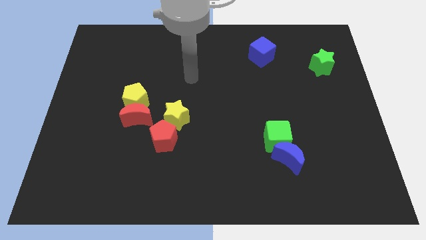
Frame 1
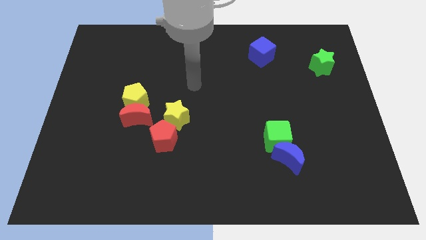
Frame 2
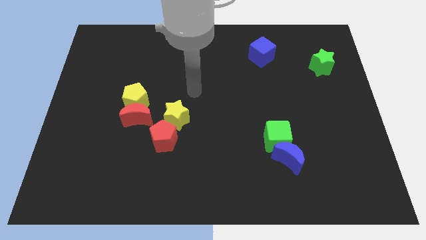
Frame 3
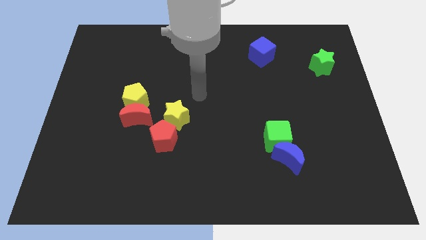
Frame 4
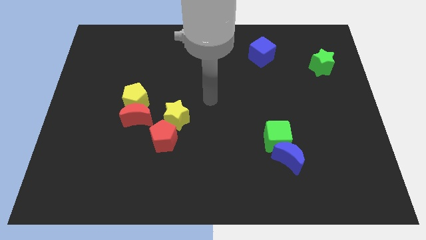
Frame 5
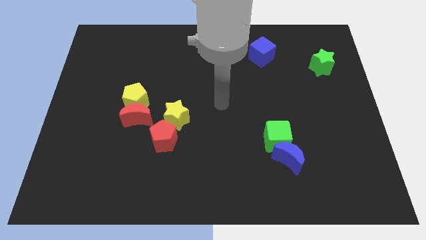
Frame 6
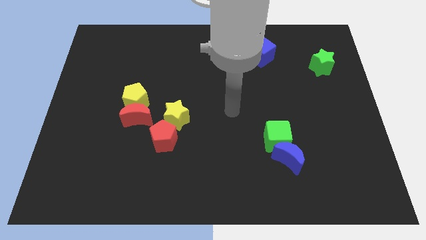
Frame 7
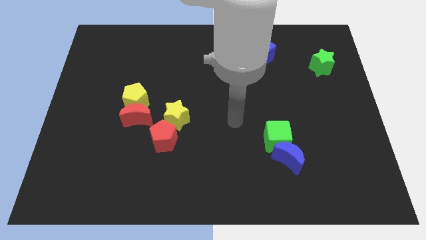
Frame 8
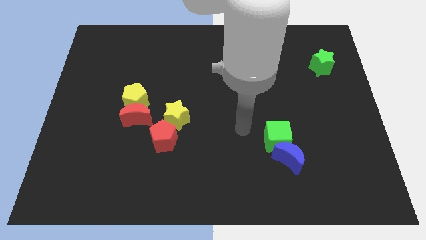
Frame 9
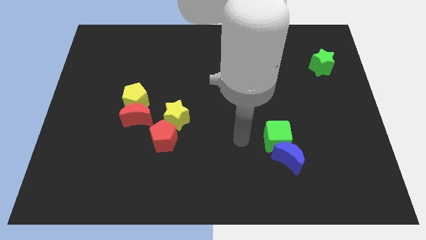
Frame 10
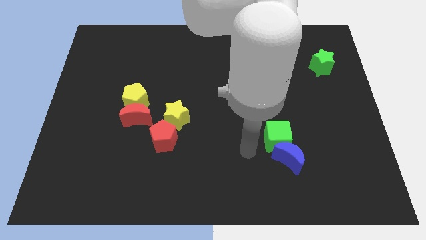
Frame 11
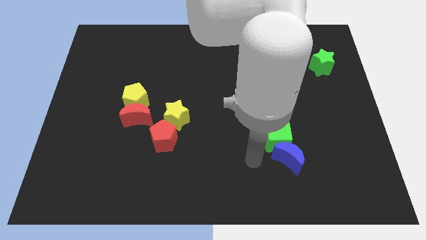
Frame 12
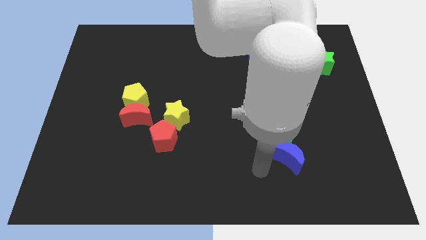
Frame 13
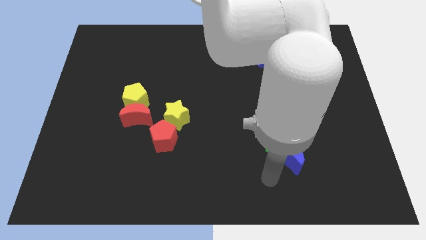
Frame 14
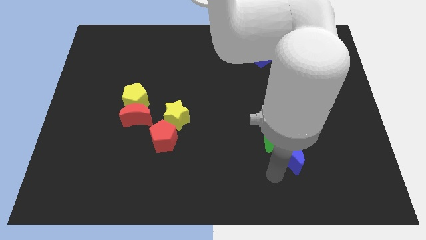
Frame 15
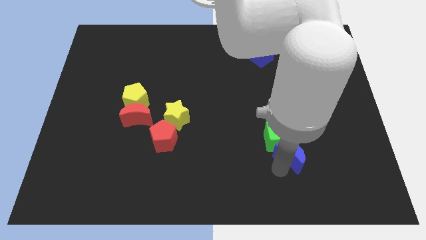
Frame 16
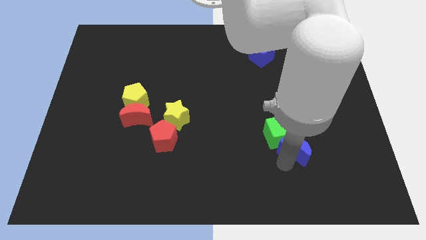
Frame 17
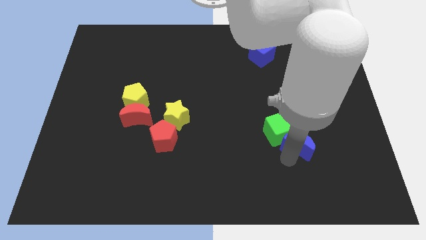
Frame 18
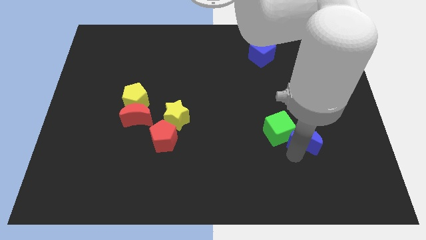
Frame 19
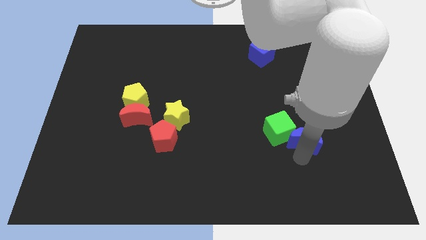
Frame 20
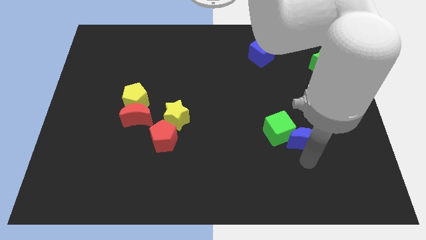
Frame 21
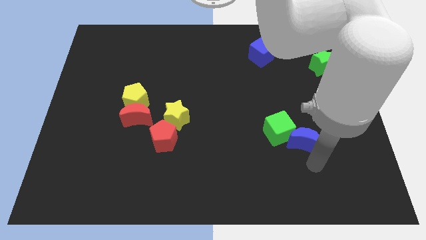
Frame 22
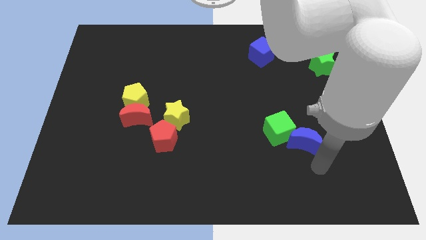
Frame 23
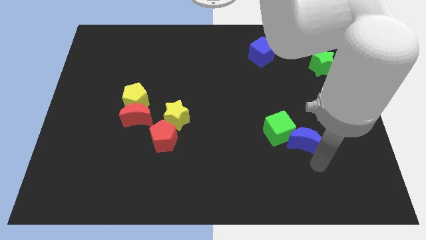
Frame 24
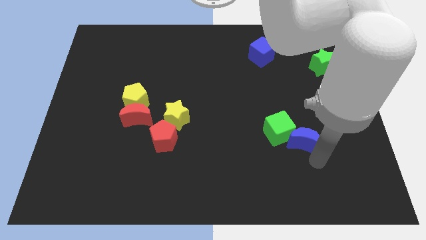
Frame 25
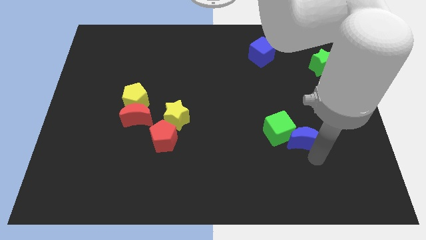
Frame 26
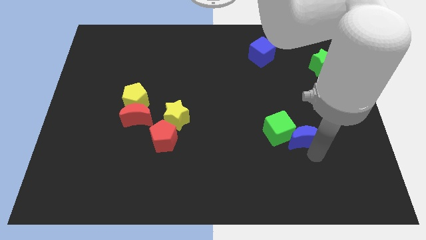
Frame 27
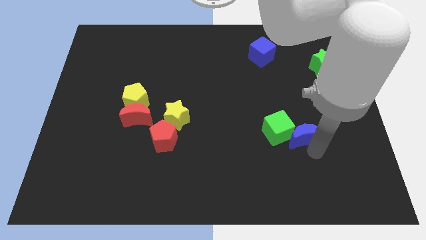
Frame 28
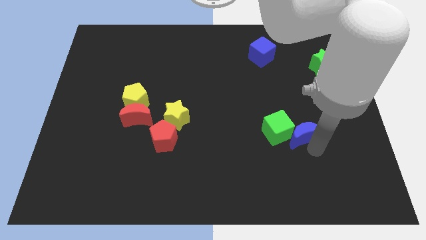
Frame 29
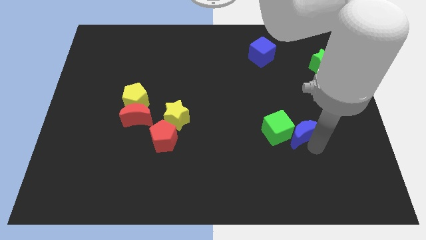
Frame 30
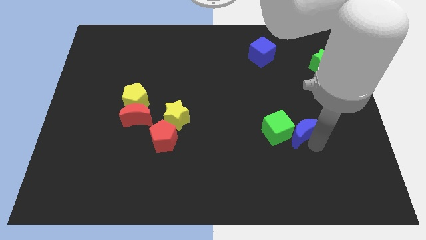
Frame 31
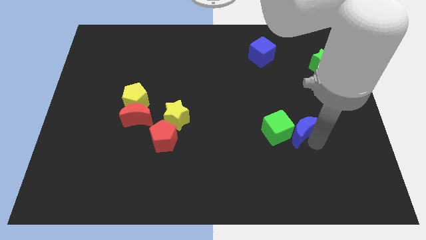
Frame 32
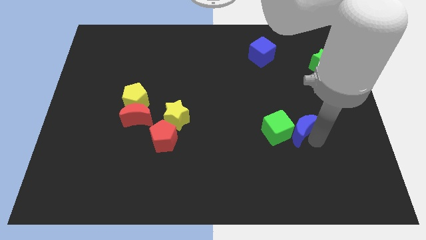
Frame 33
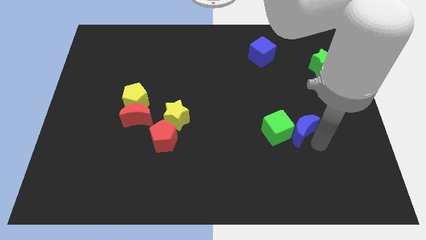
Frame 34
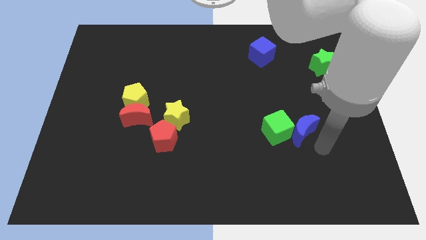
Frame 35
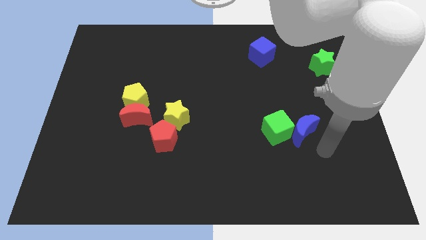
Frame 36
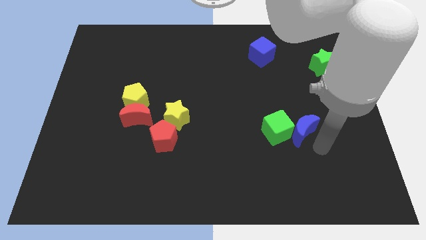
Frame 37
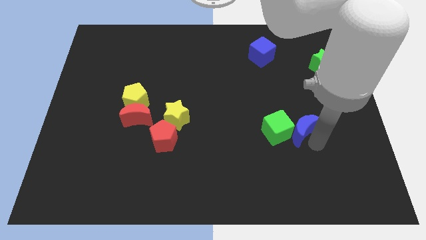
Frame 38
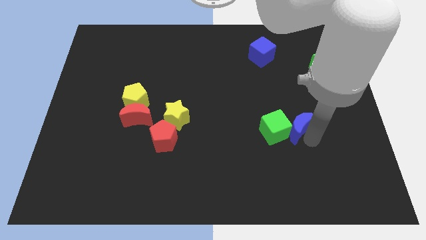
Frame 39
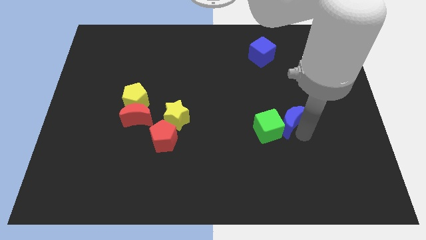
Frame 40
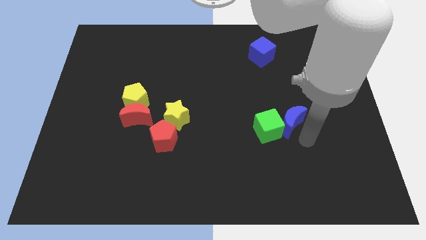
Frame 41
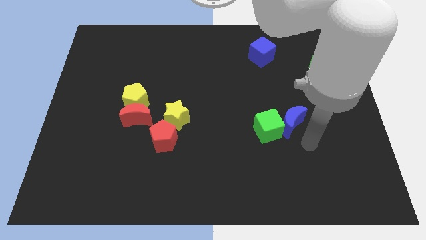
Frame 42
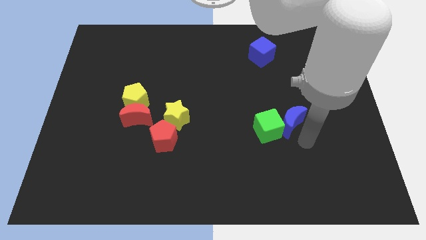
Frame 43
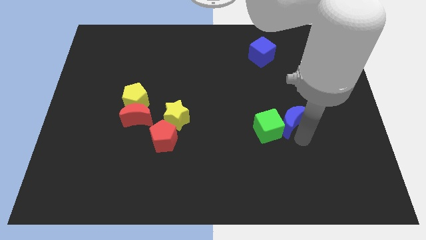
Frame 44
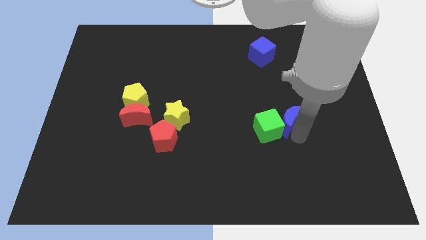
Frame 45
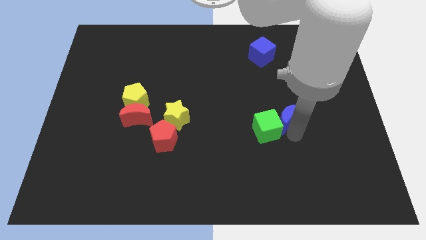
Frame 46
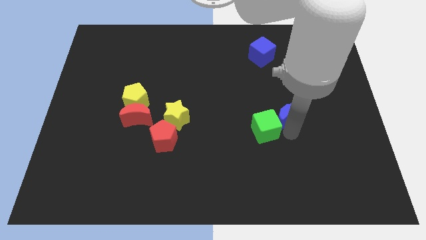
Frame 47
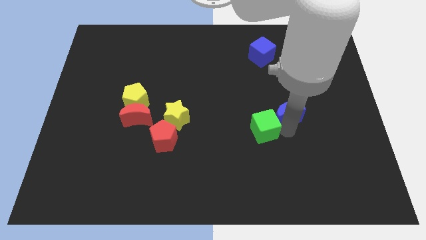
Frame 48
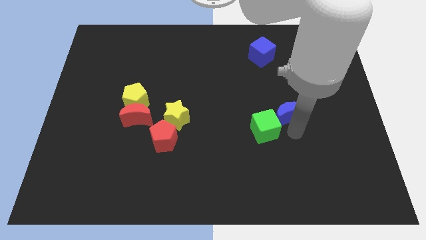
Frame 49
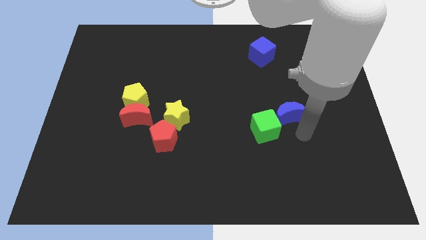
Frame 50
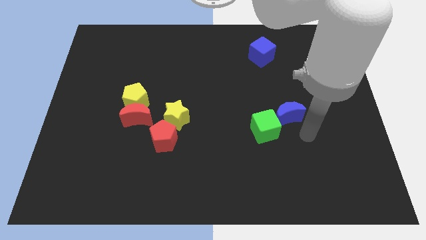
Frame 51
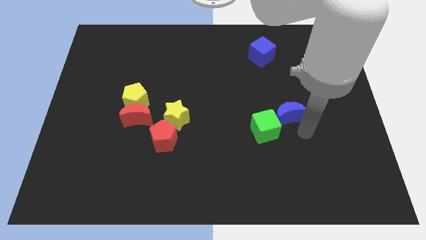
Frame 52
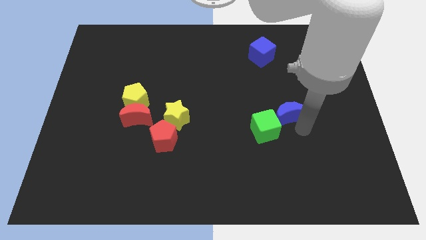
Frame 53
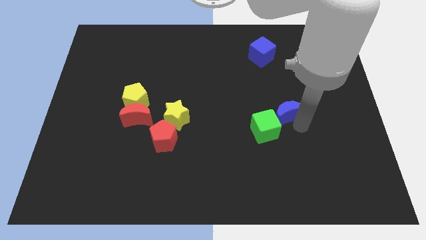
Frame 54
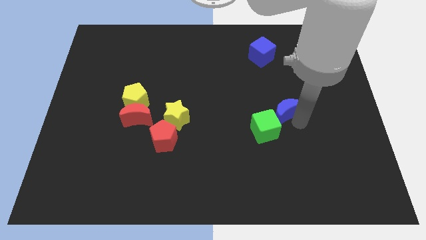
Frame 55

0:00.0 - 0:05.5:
put the blue moon above the green cube

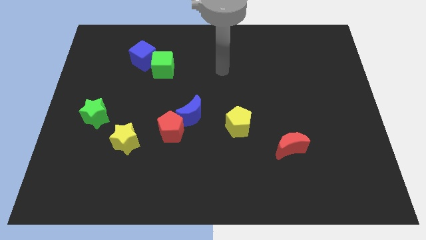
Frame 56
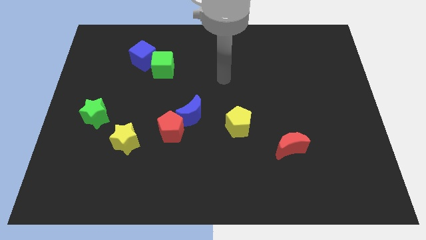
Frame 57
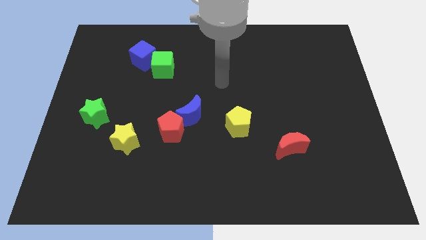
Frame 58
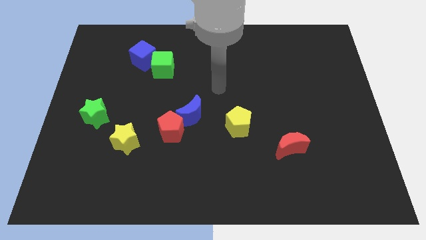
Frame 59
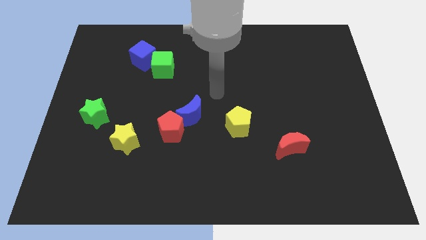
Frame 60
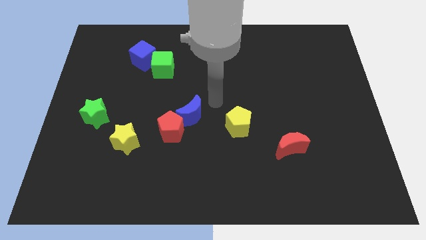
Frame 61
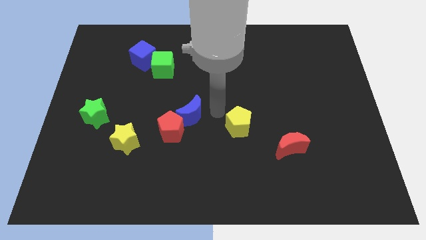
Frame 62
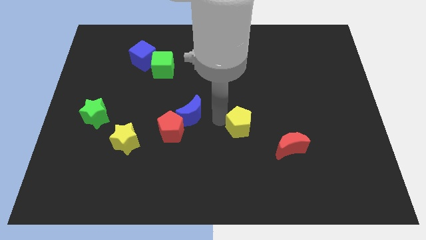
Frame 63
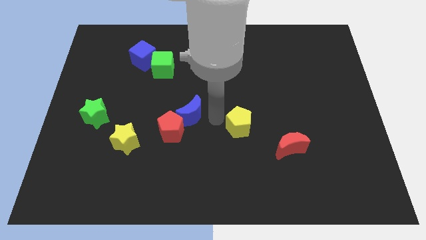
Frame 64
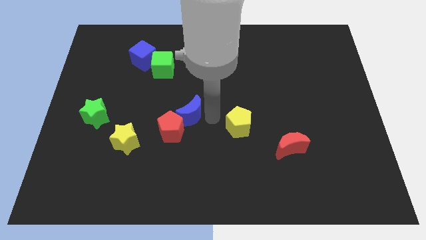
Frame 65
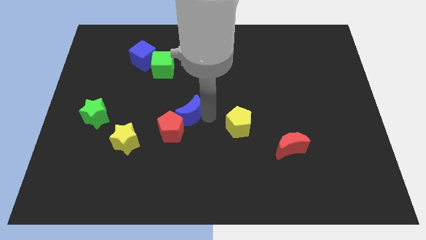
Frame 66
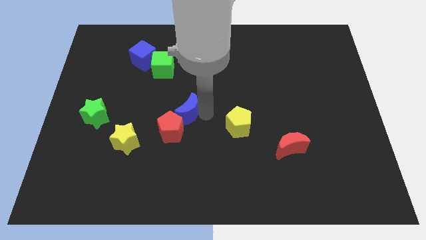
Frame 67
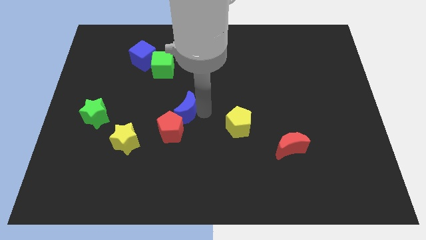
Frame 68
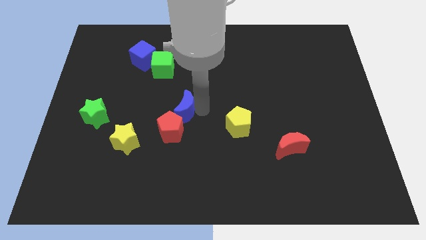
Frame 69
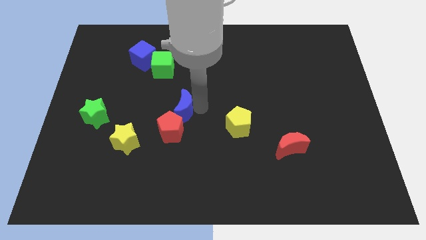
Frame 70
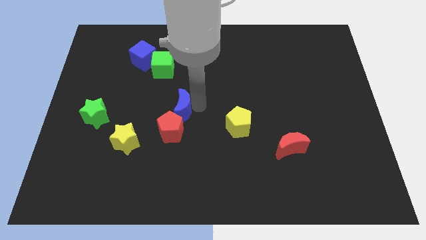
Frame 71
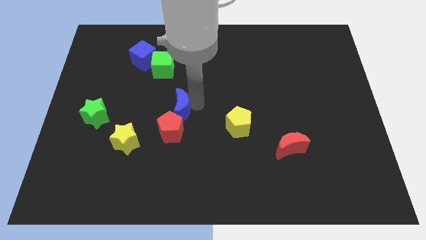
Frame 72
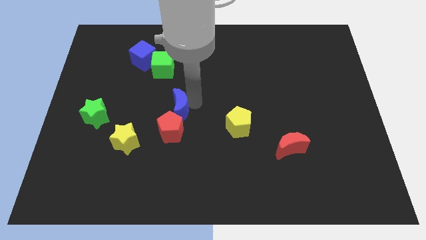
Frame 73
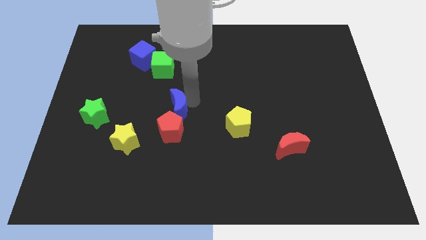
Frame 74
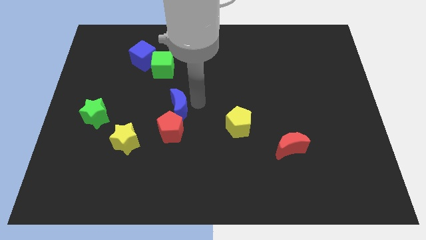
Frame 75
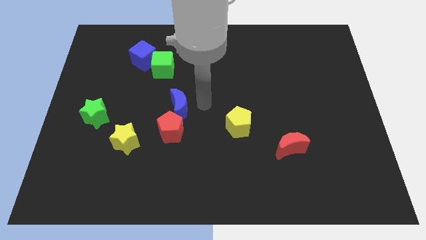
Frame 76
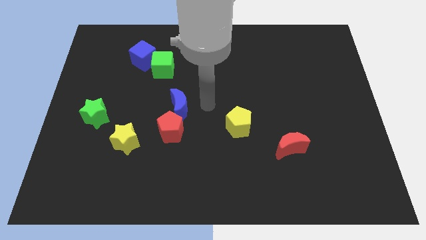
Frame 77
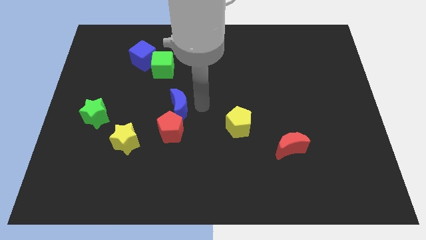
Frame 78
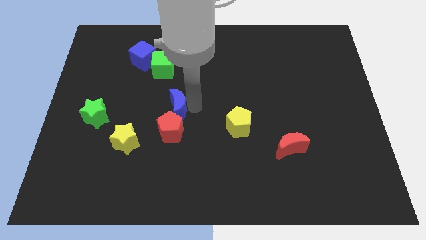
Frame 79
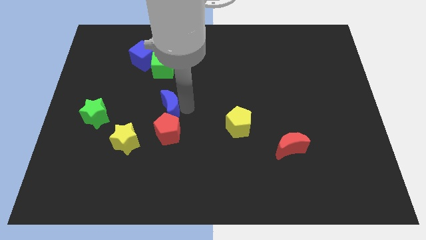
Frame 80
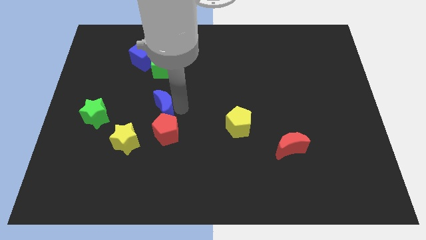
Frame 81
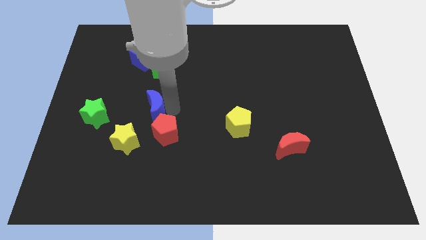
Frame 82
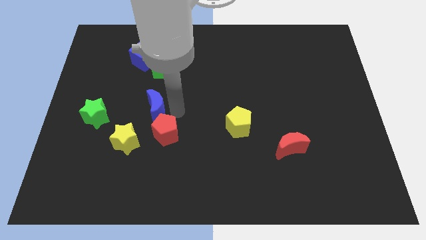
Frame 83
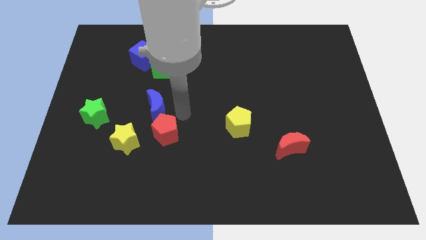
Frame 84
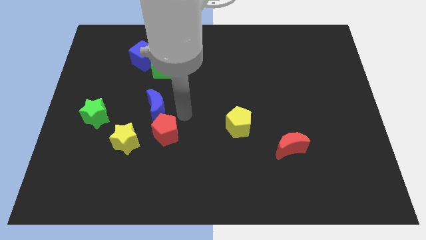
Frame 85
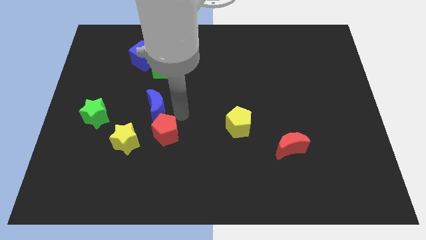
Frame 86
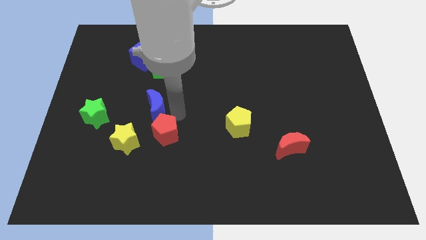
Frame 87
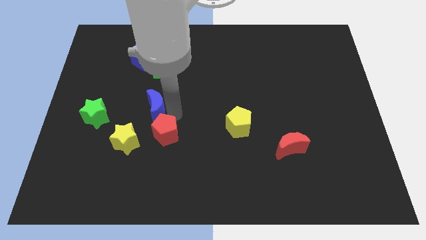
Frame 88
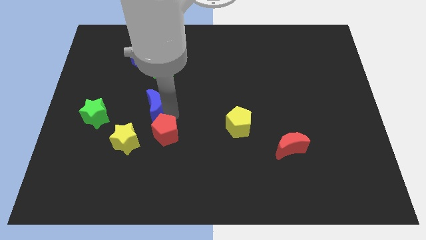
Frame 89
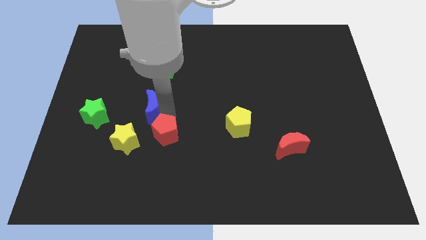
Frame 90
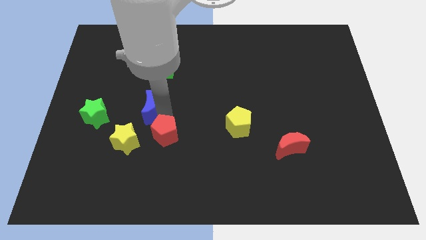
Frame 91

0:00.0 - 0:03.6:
slide the blue moon to the top side of the yellow star
